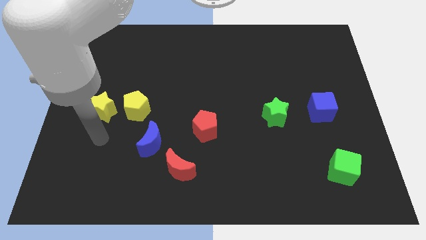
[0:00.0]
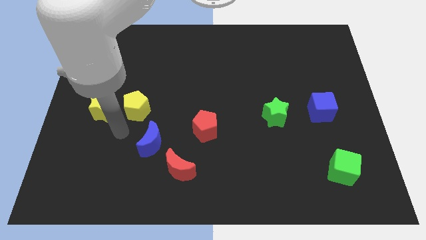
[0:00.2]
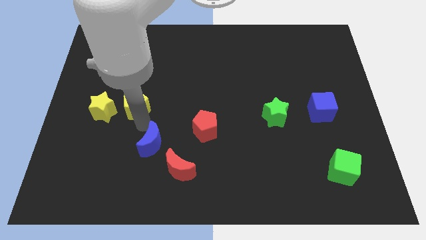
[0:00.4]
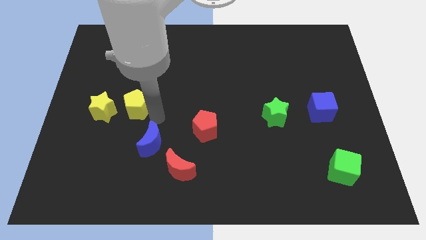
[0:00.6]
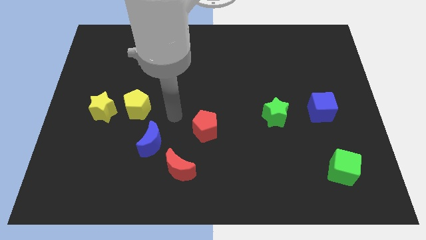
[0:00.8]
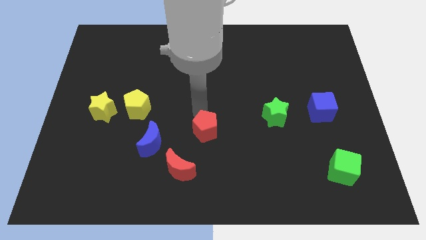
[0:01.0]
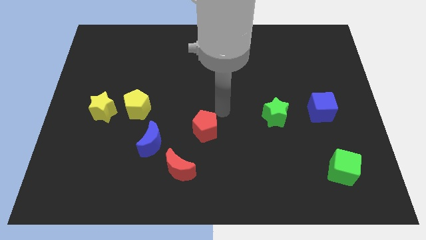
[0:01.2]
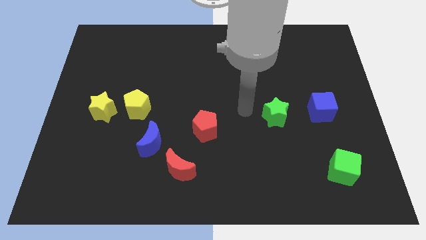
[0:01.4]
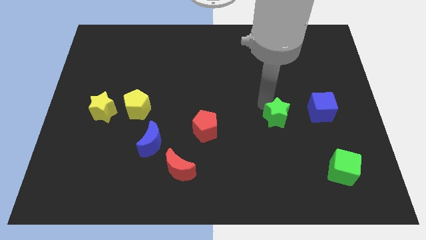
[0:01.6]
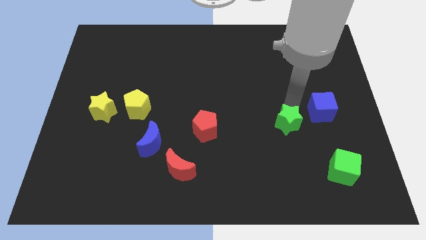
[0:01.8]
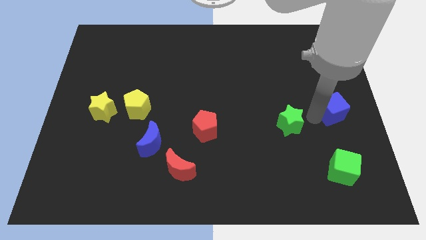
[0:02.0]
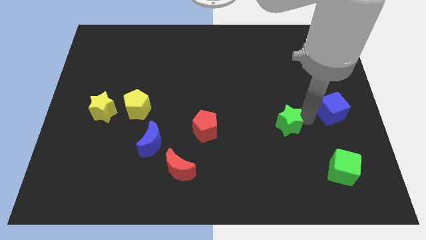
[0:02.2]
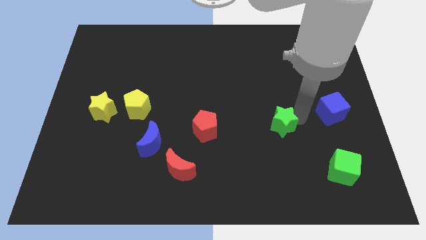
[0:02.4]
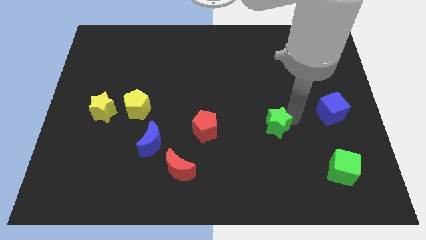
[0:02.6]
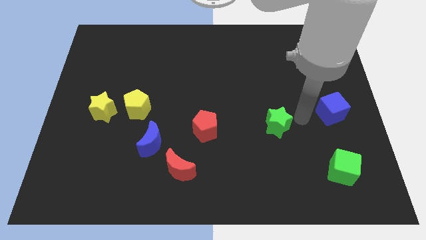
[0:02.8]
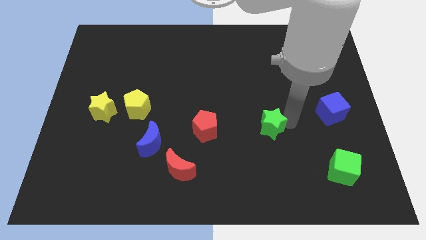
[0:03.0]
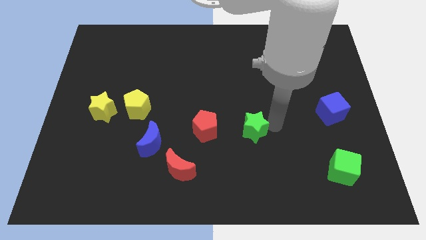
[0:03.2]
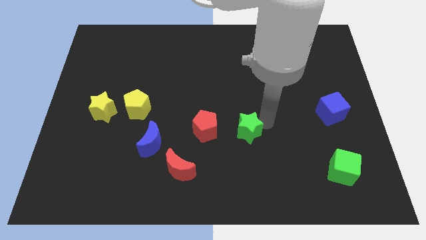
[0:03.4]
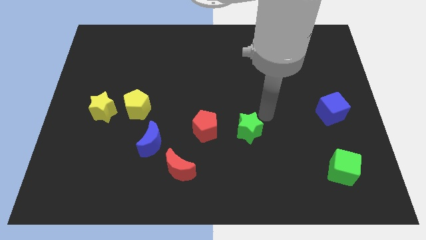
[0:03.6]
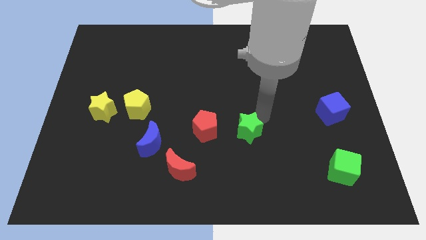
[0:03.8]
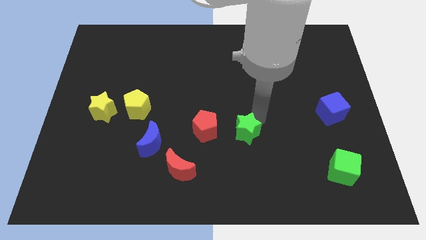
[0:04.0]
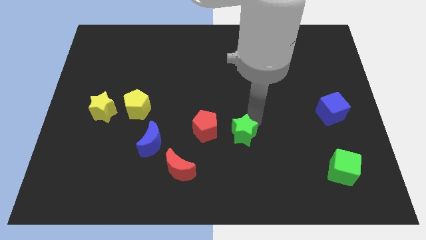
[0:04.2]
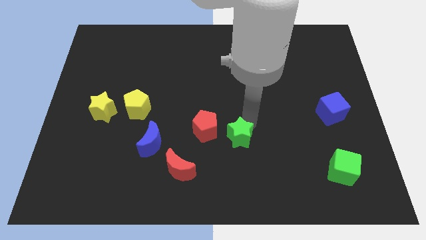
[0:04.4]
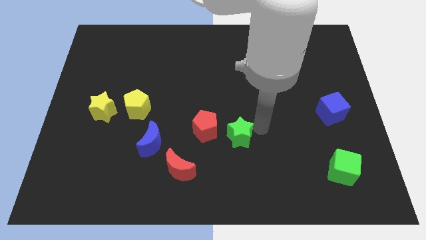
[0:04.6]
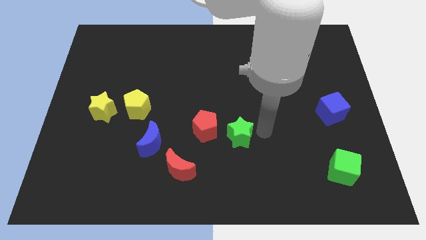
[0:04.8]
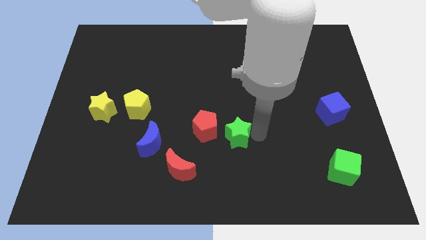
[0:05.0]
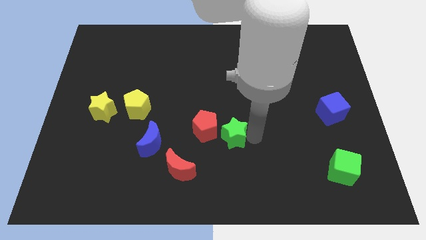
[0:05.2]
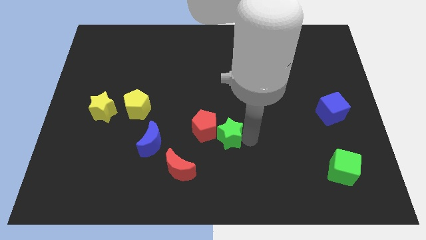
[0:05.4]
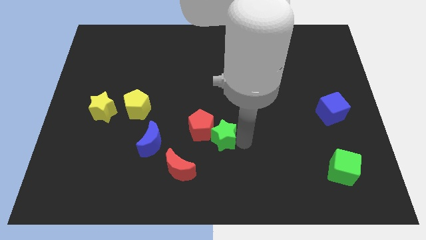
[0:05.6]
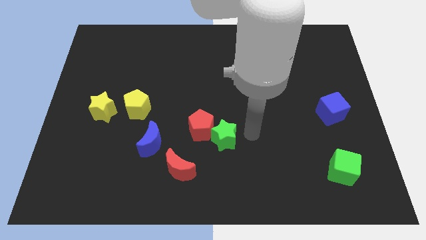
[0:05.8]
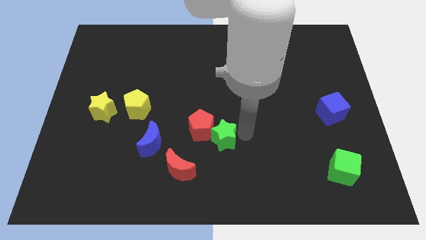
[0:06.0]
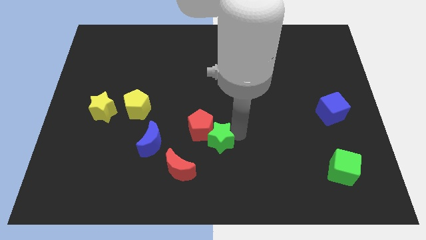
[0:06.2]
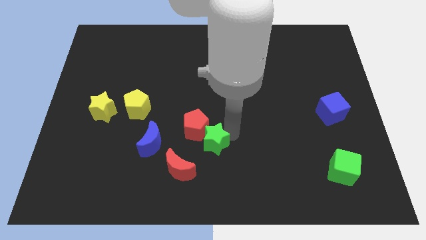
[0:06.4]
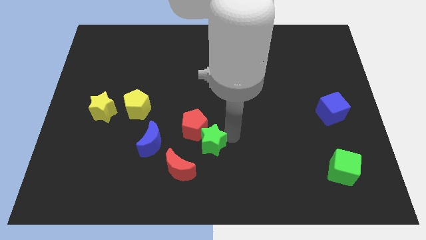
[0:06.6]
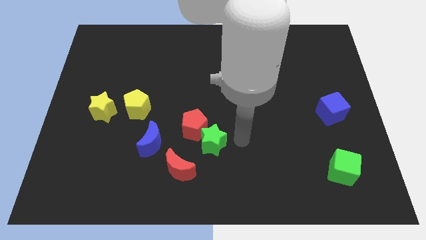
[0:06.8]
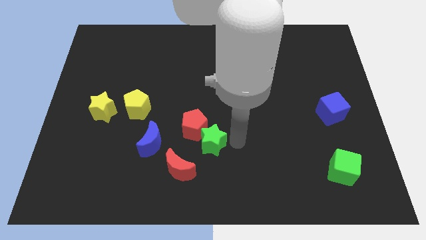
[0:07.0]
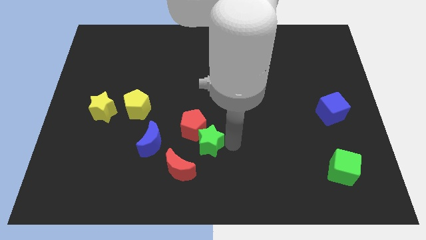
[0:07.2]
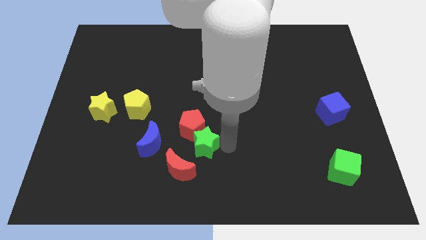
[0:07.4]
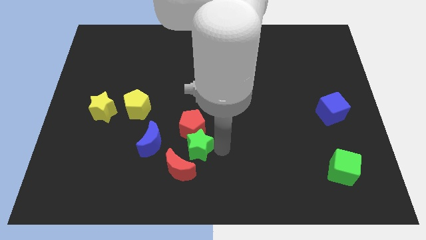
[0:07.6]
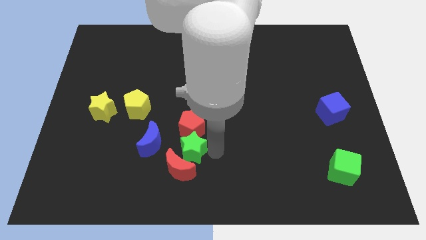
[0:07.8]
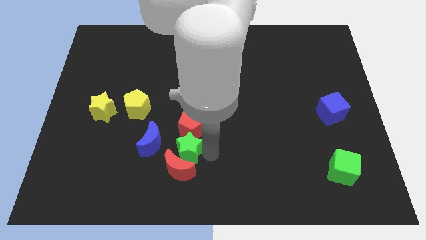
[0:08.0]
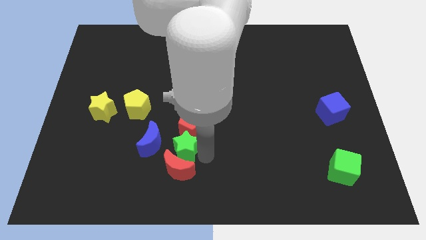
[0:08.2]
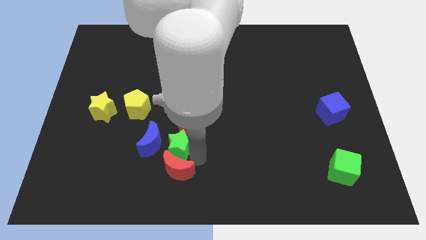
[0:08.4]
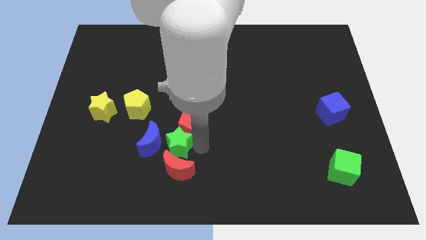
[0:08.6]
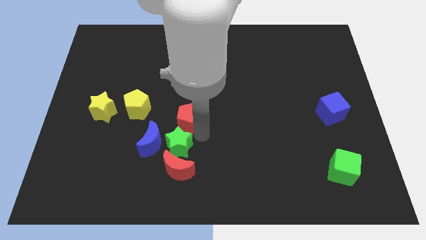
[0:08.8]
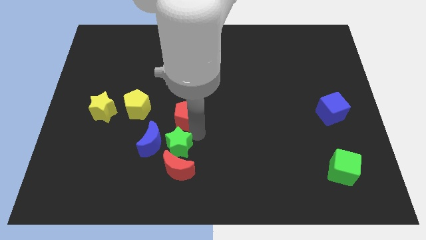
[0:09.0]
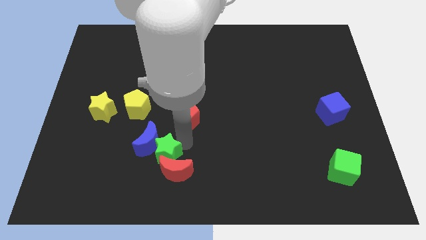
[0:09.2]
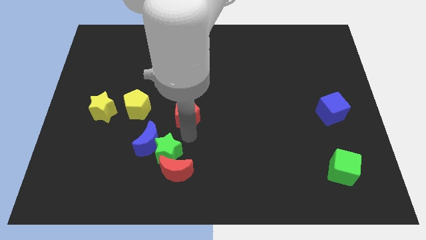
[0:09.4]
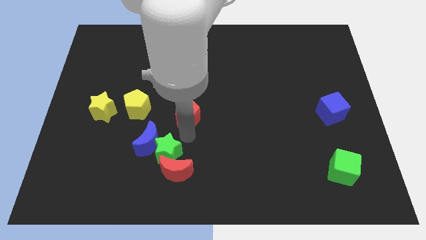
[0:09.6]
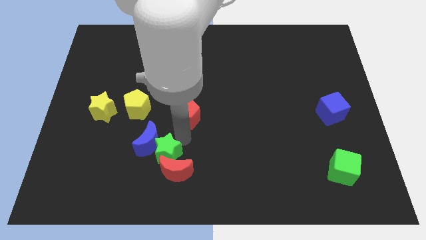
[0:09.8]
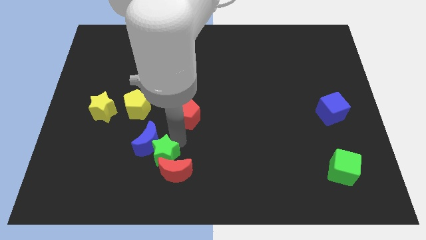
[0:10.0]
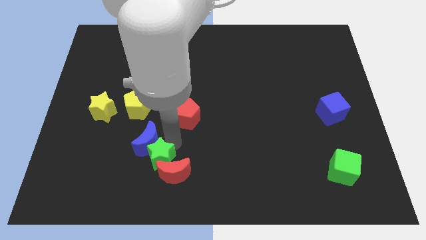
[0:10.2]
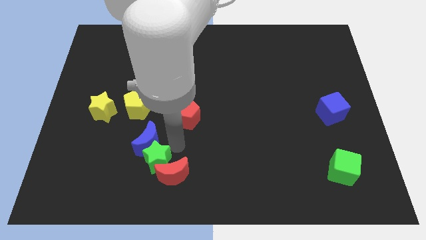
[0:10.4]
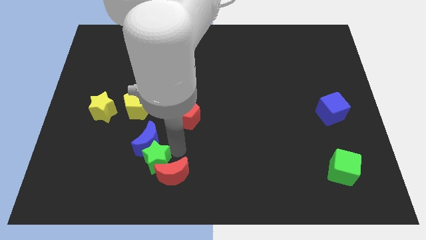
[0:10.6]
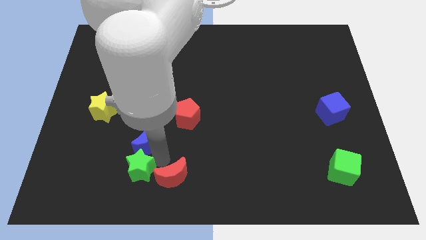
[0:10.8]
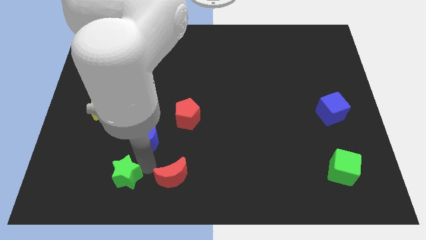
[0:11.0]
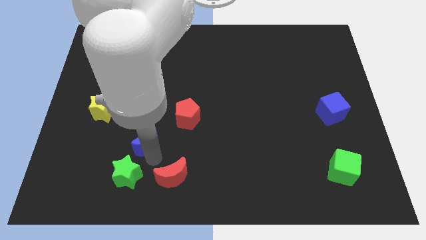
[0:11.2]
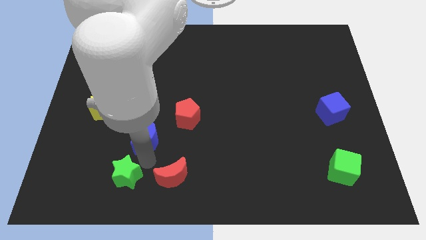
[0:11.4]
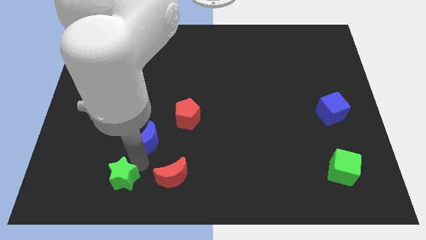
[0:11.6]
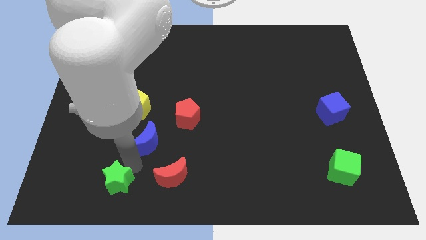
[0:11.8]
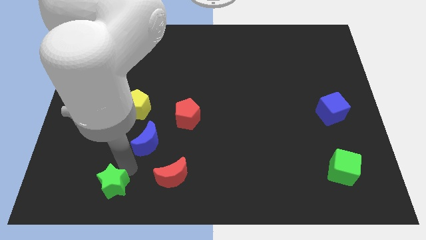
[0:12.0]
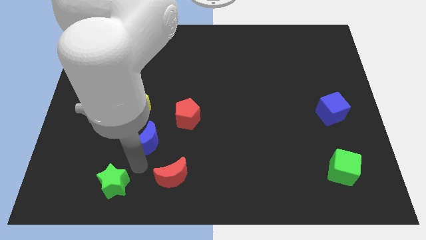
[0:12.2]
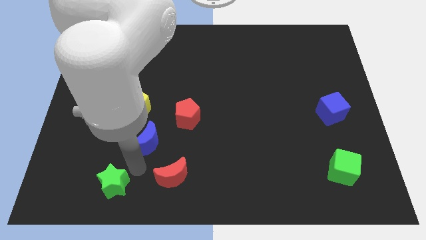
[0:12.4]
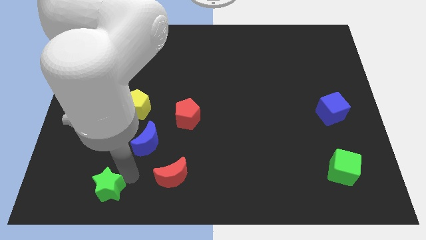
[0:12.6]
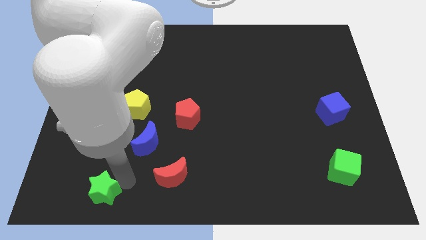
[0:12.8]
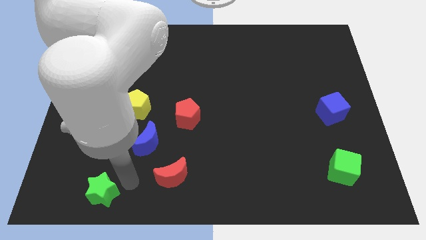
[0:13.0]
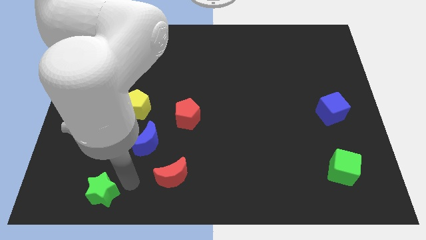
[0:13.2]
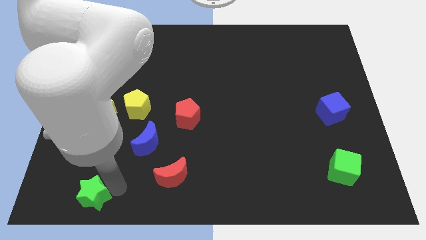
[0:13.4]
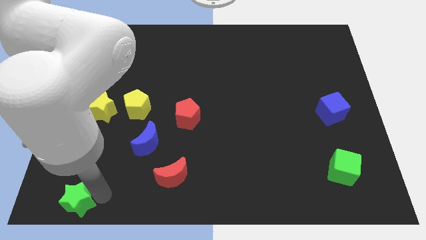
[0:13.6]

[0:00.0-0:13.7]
move the green star to the bottom left of the board

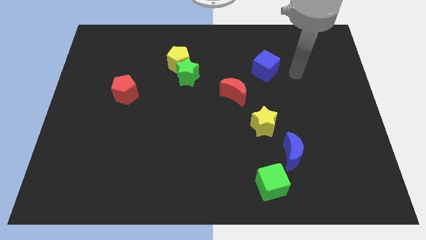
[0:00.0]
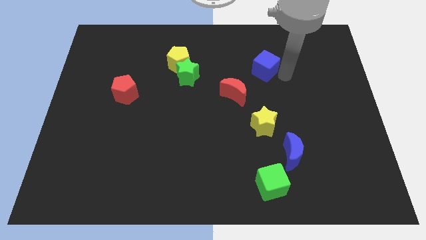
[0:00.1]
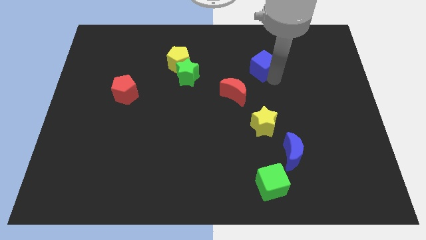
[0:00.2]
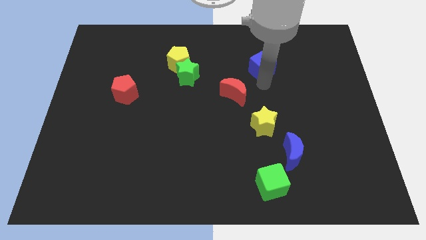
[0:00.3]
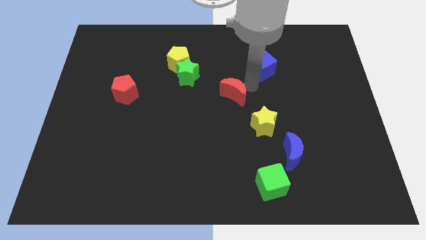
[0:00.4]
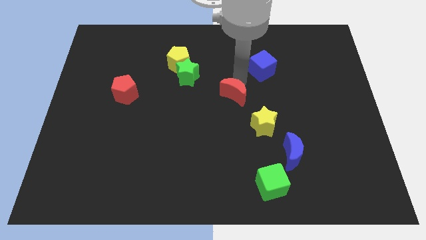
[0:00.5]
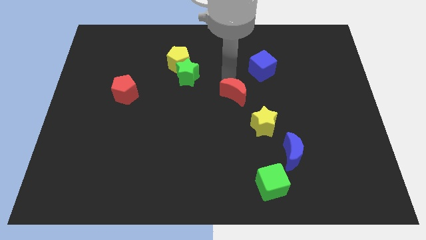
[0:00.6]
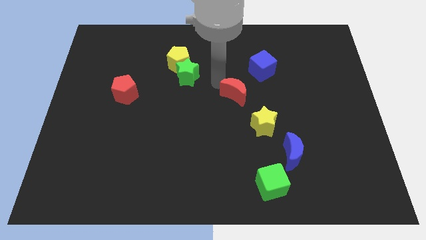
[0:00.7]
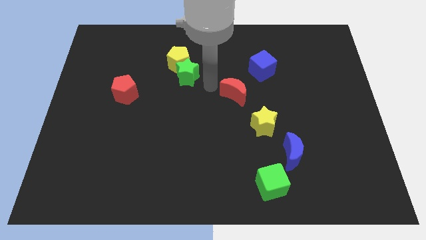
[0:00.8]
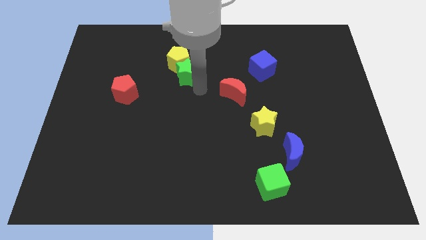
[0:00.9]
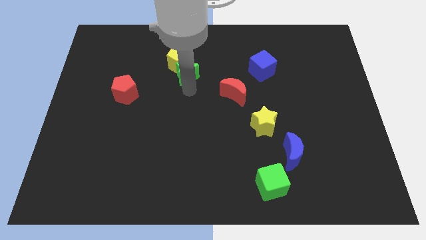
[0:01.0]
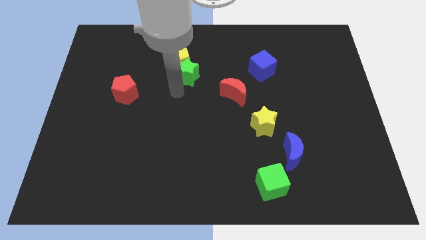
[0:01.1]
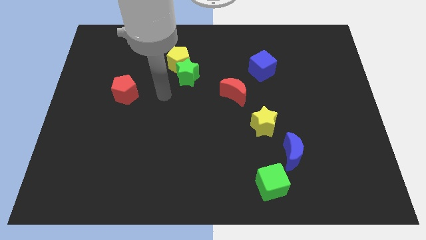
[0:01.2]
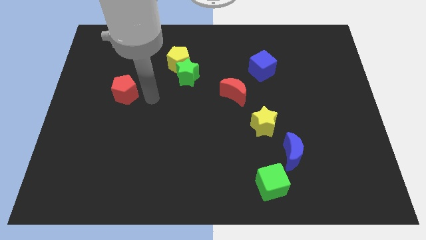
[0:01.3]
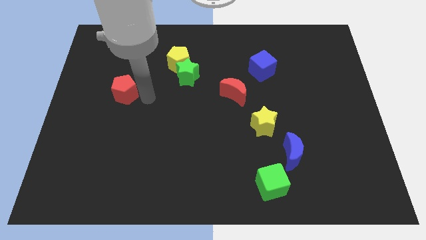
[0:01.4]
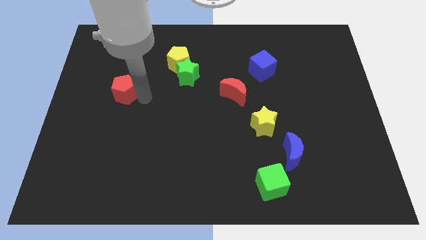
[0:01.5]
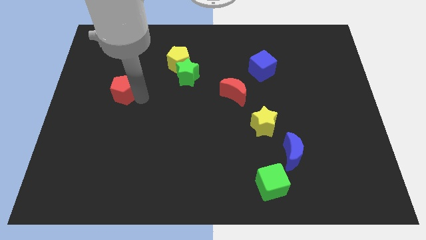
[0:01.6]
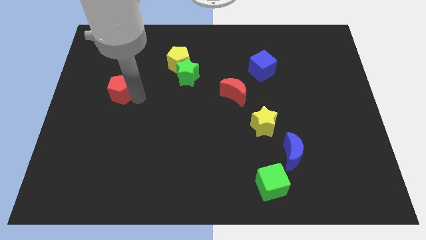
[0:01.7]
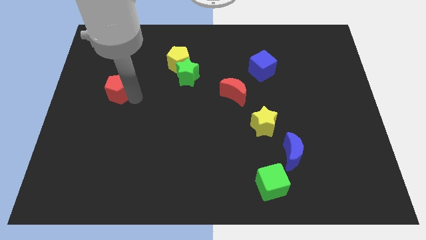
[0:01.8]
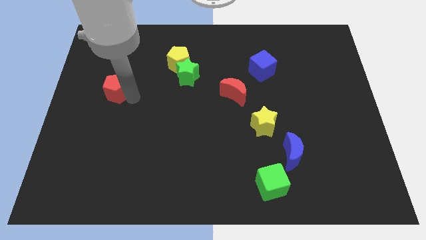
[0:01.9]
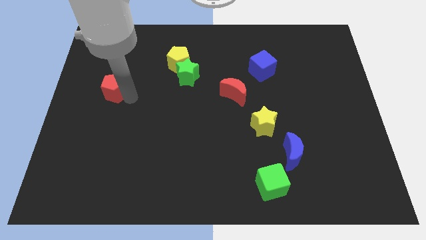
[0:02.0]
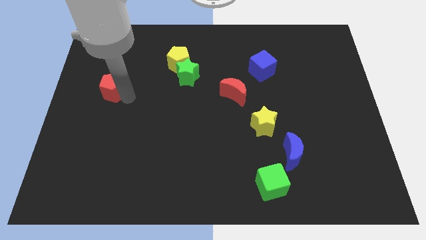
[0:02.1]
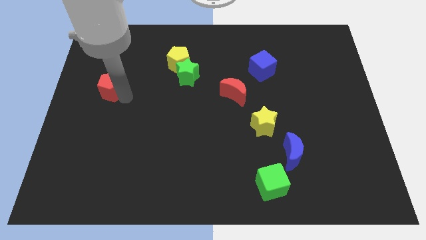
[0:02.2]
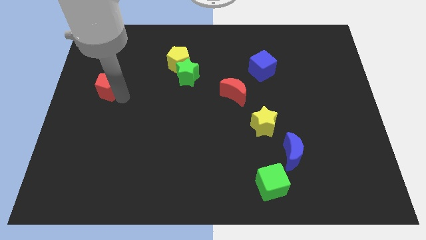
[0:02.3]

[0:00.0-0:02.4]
put the red pentagon to the left side of the board
